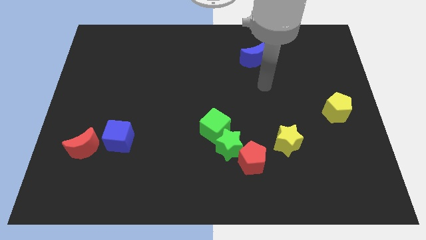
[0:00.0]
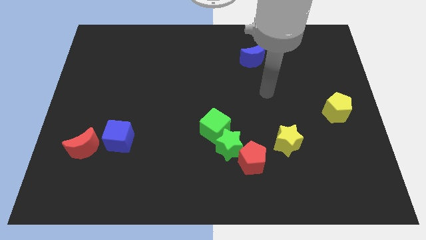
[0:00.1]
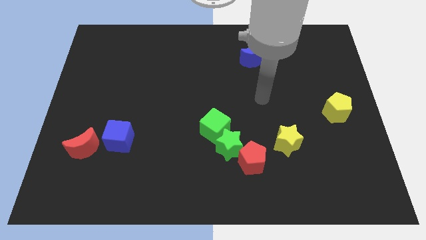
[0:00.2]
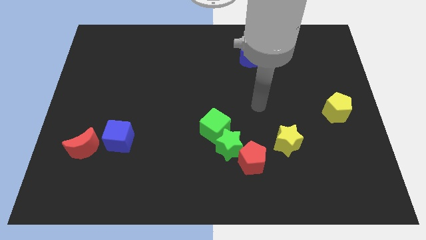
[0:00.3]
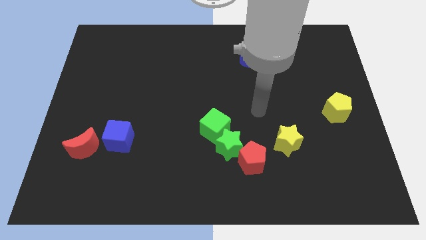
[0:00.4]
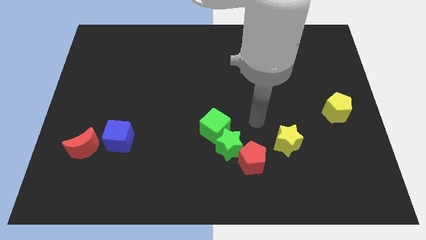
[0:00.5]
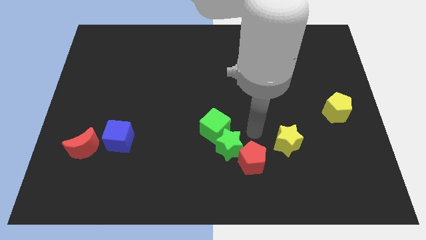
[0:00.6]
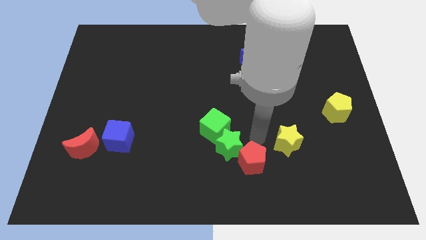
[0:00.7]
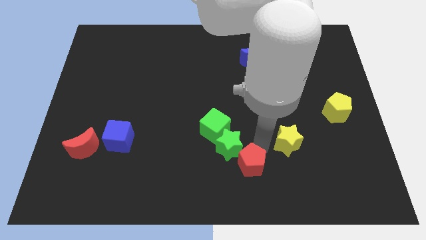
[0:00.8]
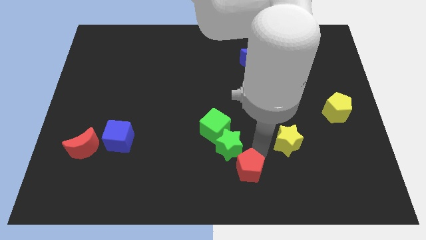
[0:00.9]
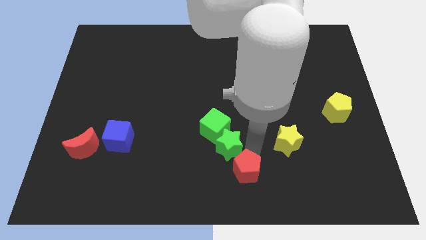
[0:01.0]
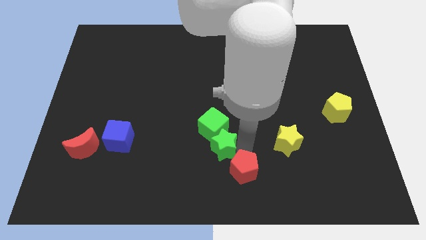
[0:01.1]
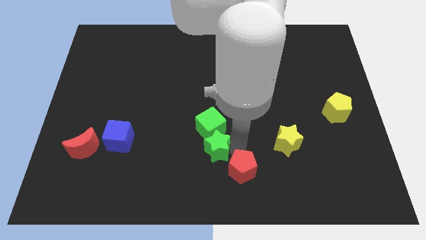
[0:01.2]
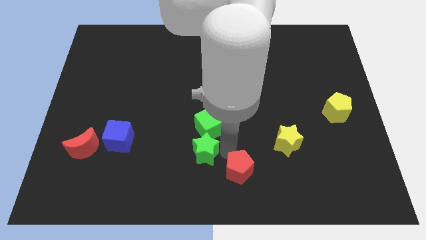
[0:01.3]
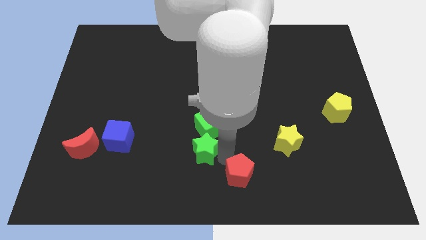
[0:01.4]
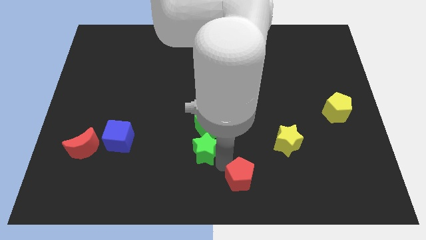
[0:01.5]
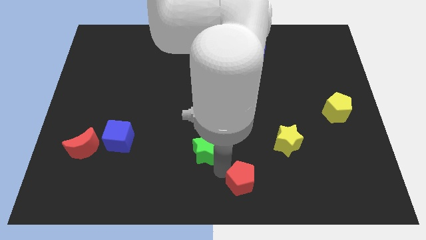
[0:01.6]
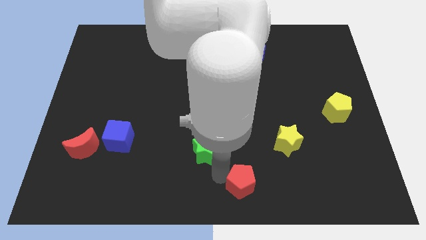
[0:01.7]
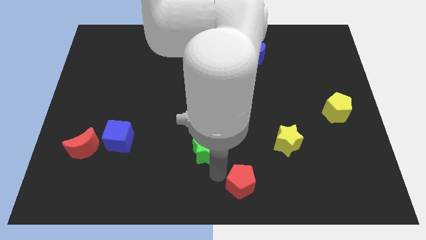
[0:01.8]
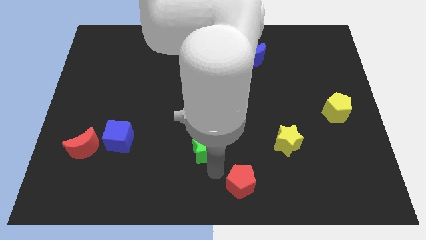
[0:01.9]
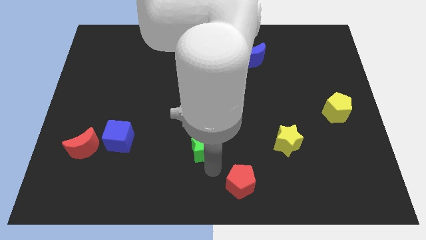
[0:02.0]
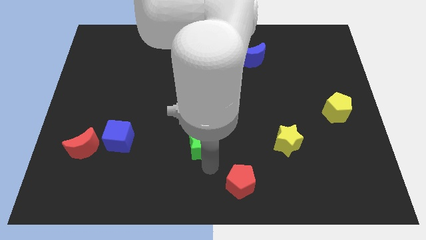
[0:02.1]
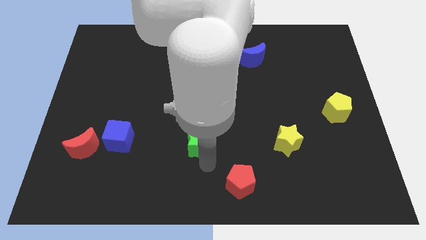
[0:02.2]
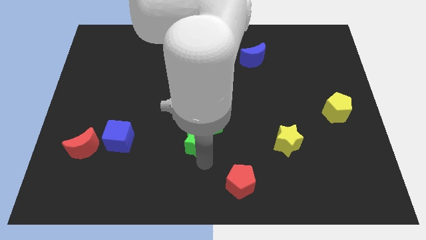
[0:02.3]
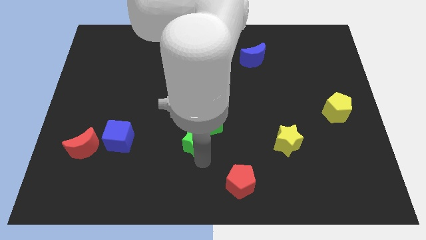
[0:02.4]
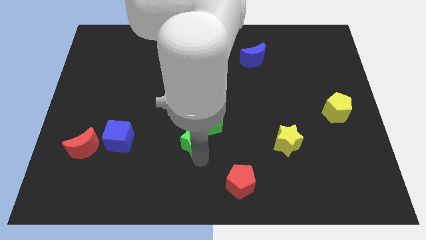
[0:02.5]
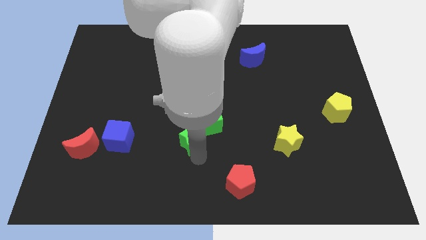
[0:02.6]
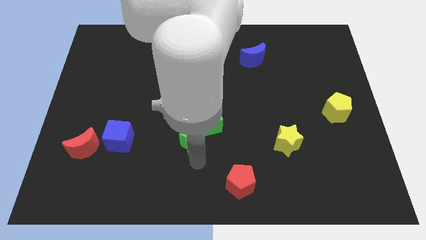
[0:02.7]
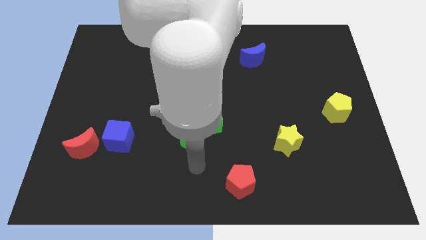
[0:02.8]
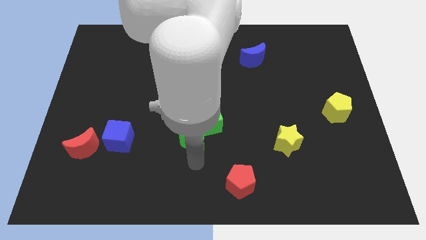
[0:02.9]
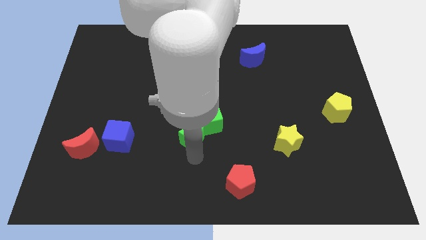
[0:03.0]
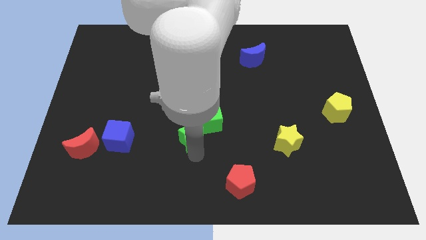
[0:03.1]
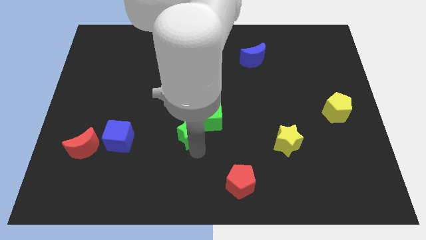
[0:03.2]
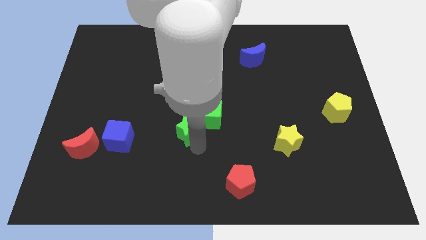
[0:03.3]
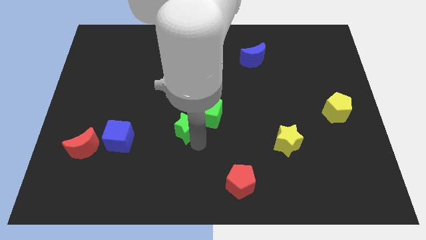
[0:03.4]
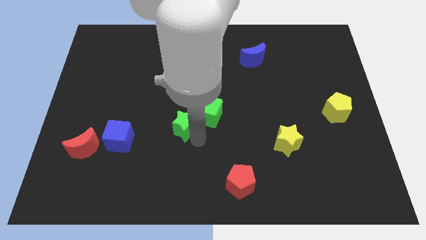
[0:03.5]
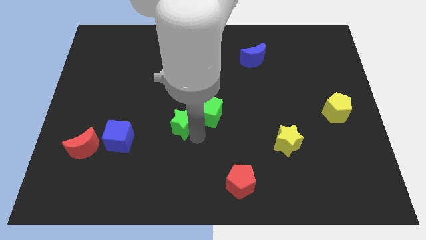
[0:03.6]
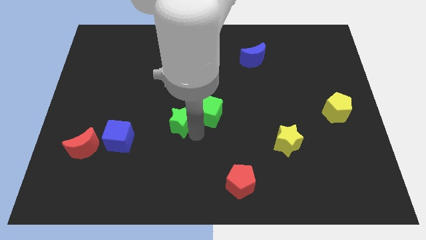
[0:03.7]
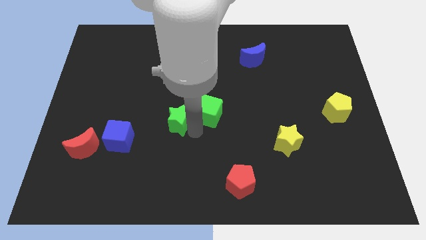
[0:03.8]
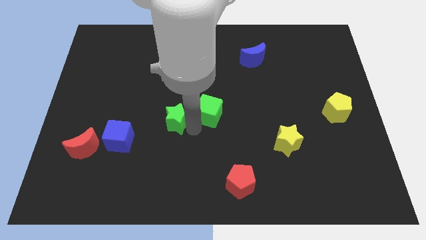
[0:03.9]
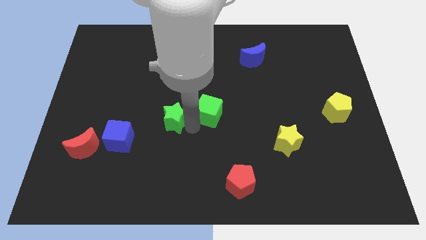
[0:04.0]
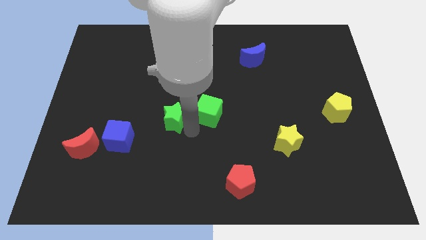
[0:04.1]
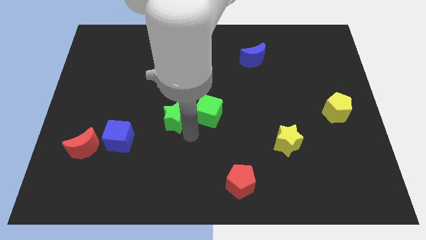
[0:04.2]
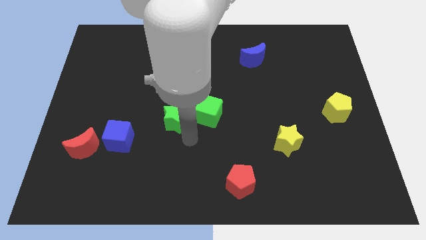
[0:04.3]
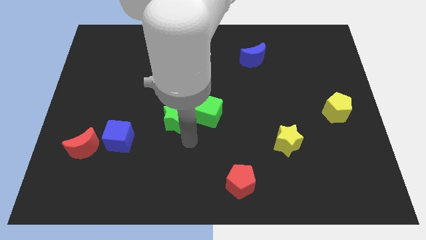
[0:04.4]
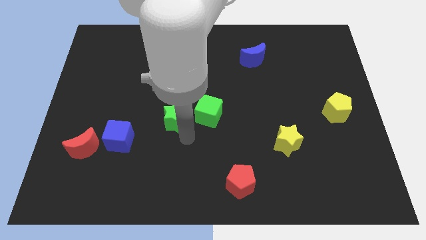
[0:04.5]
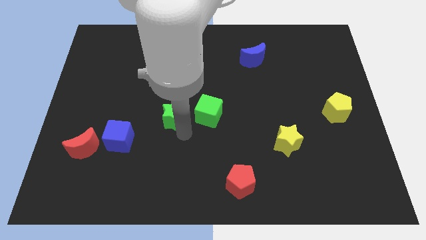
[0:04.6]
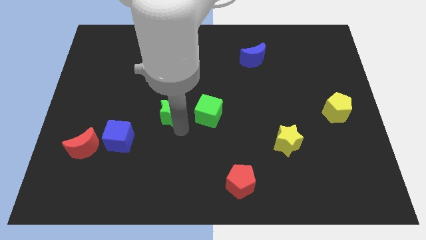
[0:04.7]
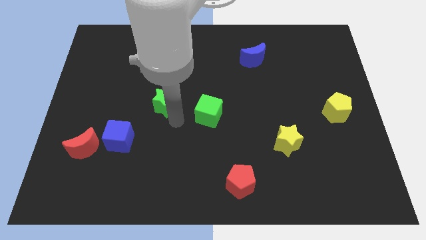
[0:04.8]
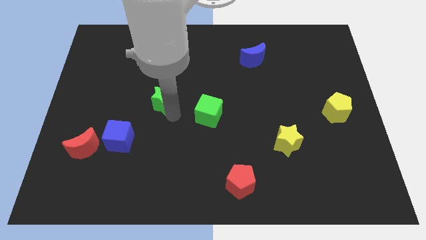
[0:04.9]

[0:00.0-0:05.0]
push the green star upwards and then to the left

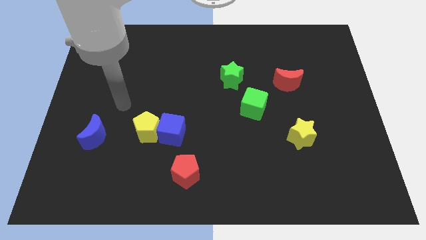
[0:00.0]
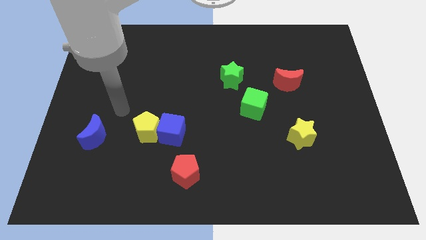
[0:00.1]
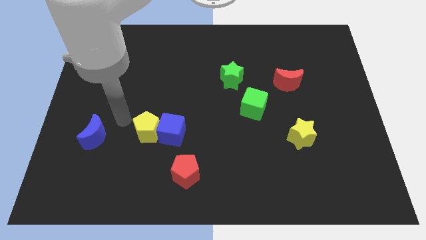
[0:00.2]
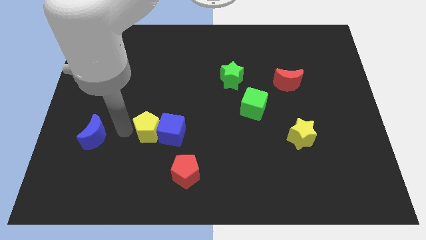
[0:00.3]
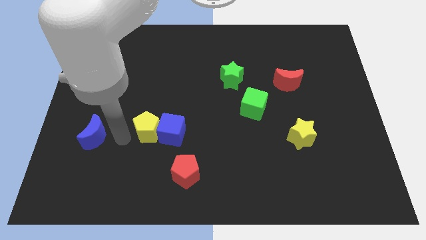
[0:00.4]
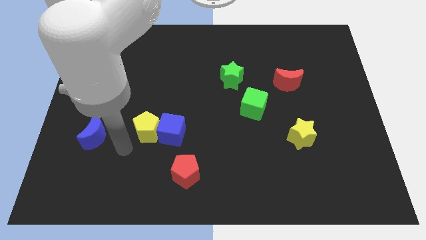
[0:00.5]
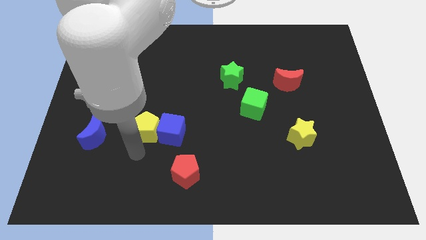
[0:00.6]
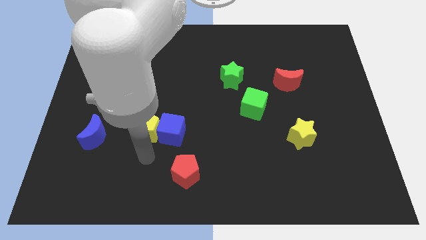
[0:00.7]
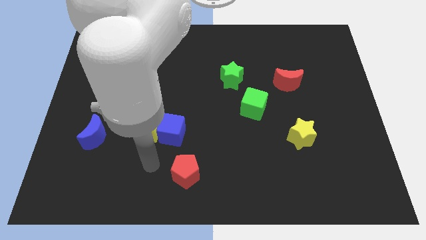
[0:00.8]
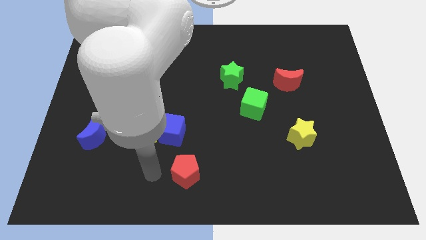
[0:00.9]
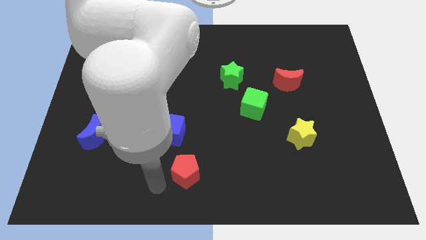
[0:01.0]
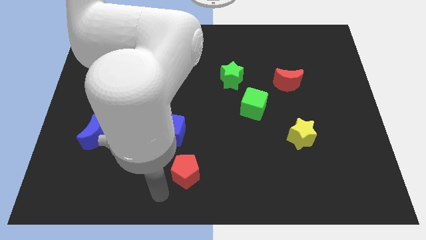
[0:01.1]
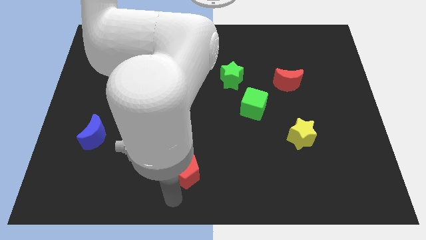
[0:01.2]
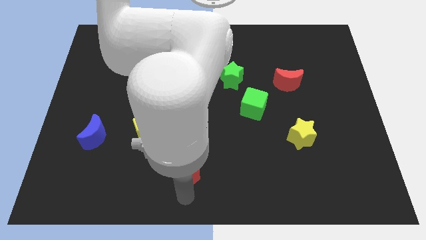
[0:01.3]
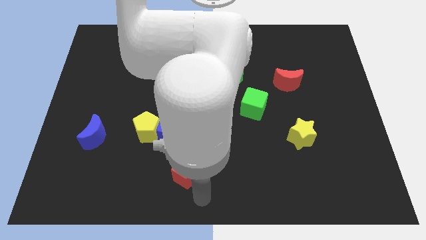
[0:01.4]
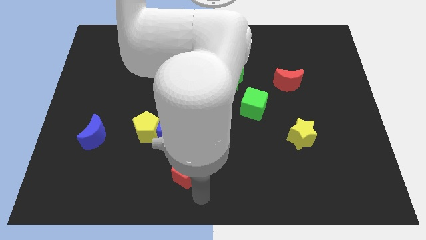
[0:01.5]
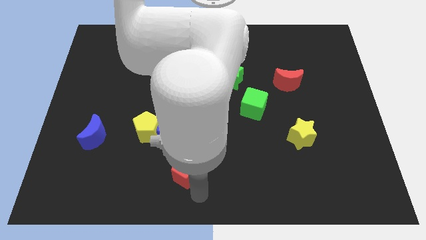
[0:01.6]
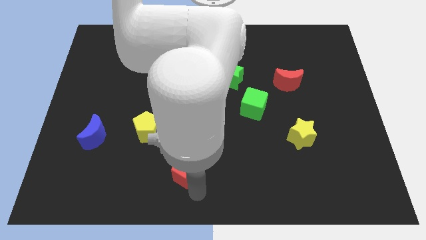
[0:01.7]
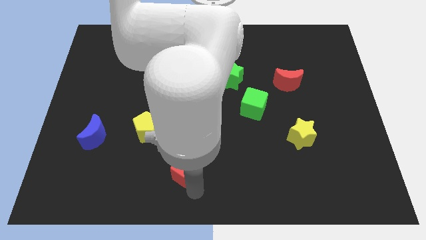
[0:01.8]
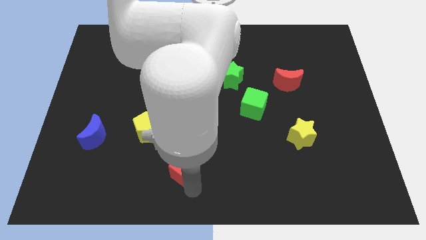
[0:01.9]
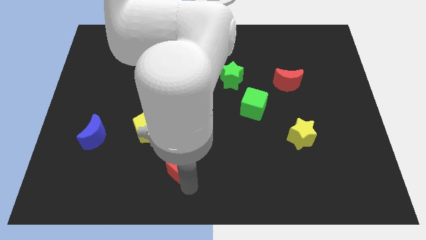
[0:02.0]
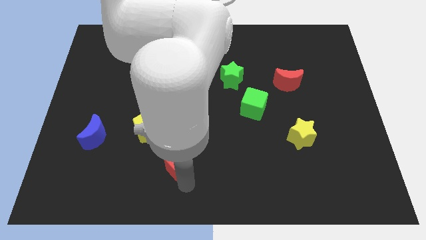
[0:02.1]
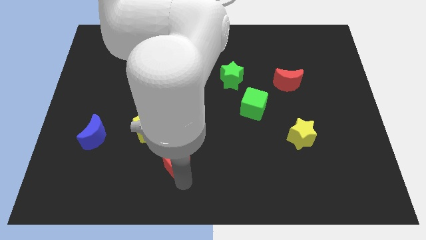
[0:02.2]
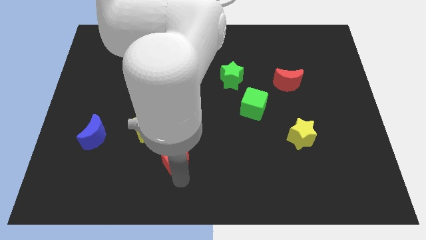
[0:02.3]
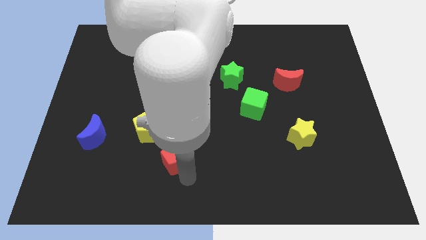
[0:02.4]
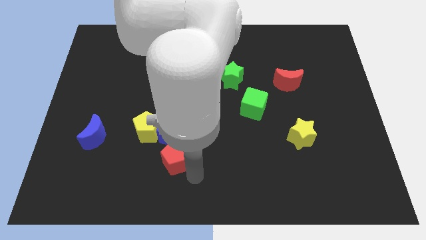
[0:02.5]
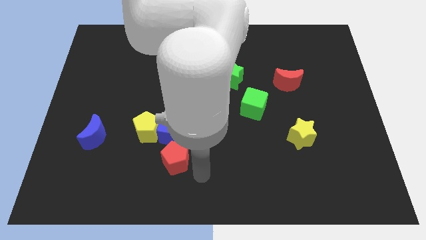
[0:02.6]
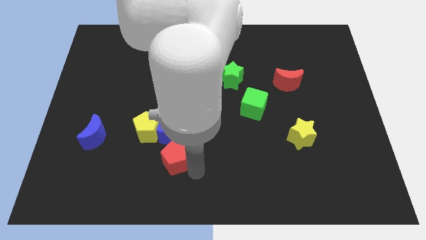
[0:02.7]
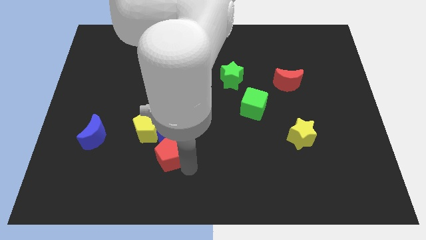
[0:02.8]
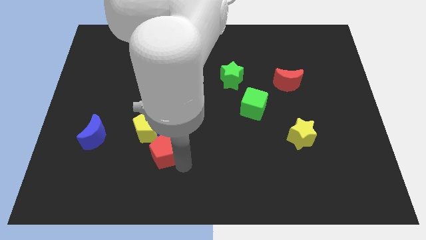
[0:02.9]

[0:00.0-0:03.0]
slide the red pentagon diagonally upwards and left slightly

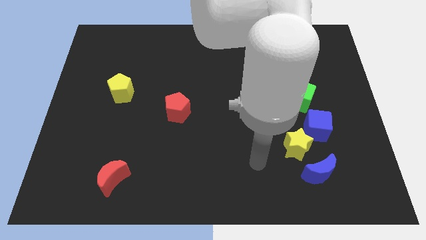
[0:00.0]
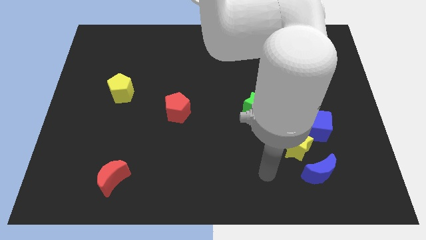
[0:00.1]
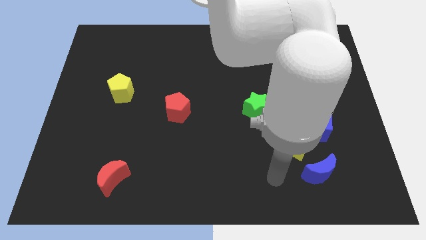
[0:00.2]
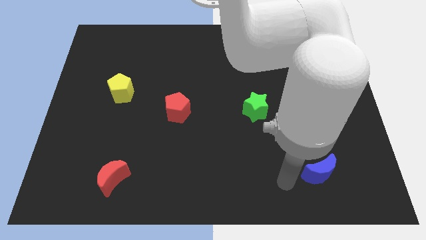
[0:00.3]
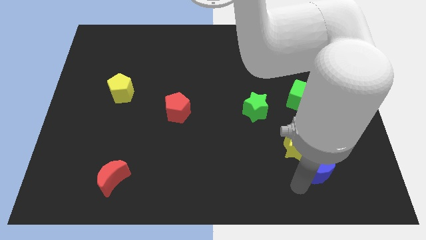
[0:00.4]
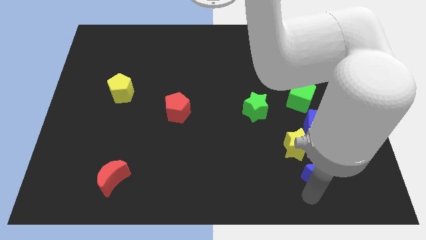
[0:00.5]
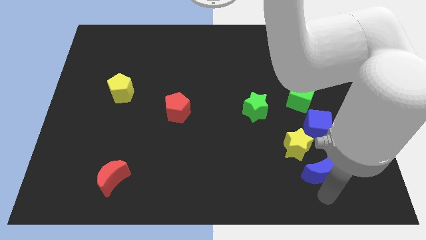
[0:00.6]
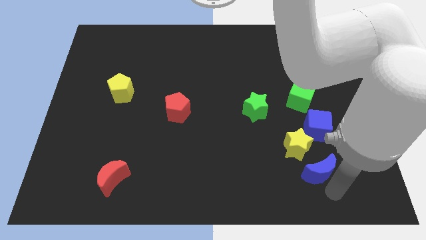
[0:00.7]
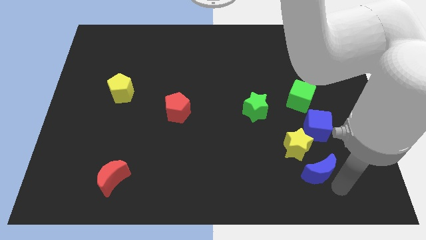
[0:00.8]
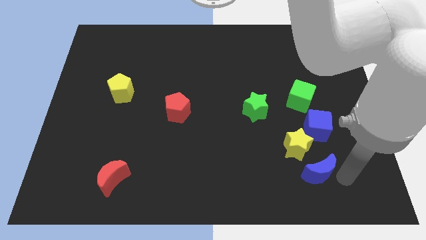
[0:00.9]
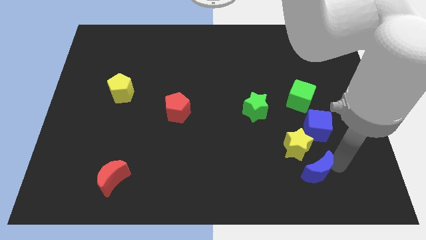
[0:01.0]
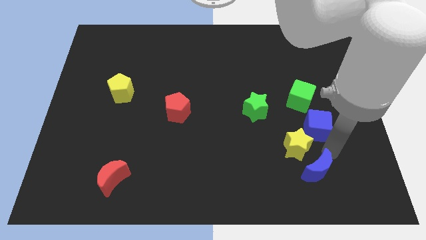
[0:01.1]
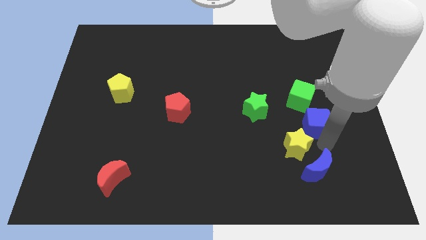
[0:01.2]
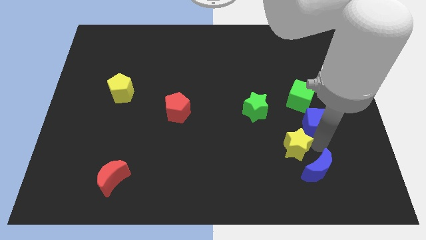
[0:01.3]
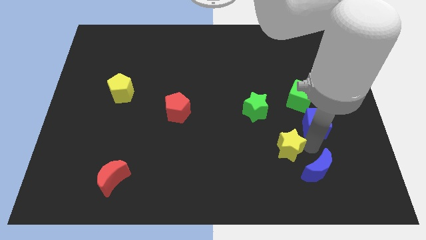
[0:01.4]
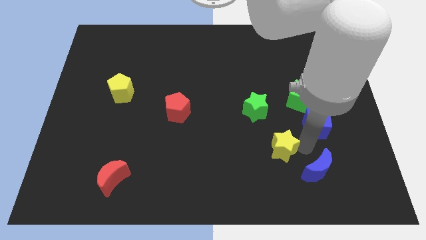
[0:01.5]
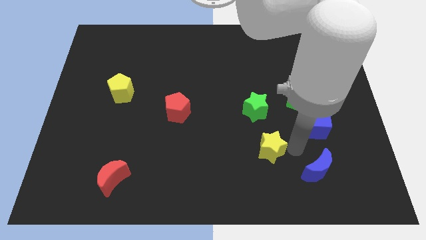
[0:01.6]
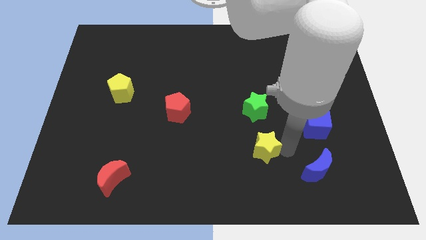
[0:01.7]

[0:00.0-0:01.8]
push the yellow star a little left
